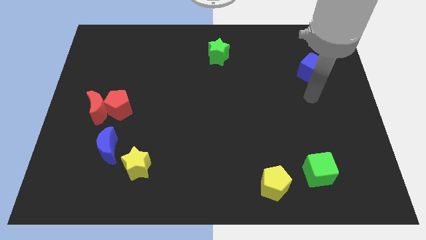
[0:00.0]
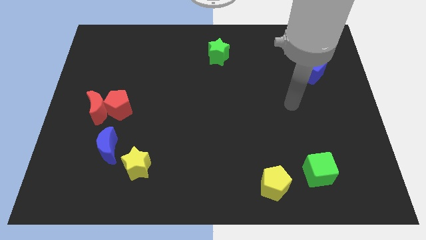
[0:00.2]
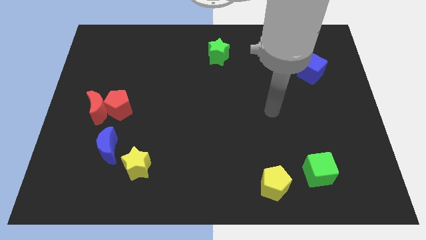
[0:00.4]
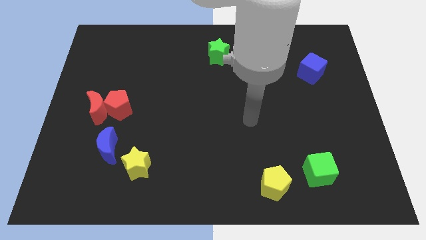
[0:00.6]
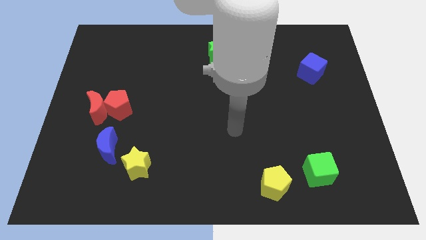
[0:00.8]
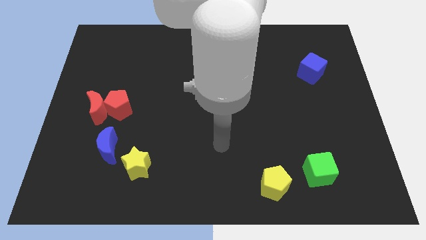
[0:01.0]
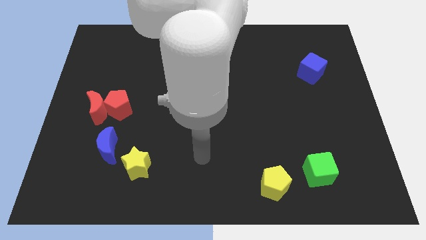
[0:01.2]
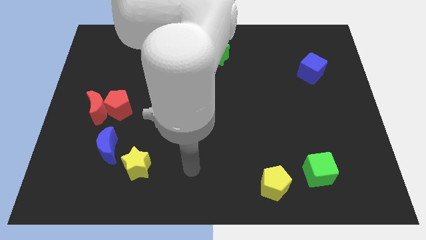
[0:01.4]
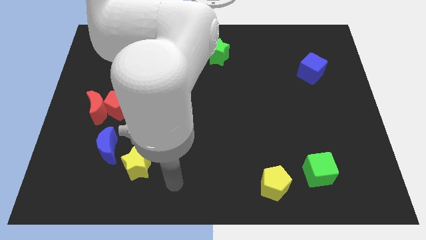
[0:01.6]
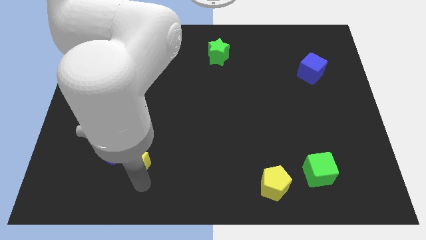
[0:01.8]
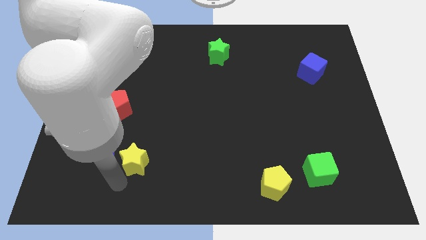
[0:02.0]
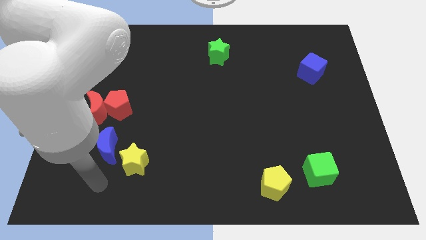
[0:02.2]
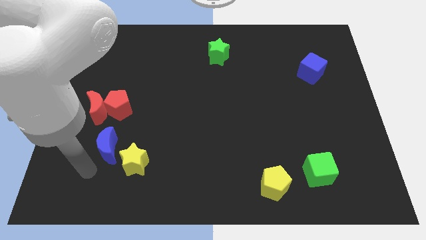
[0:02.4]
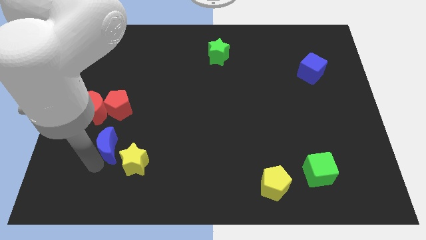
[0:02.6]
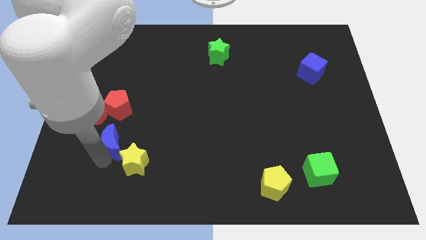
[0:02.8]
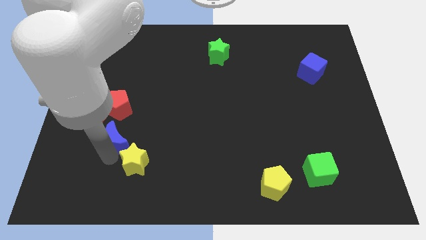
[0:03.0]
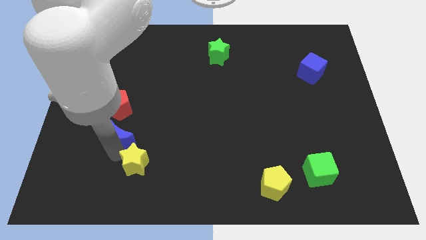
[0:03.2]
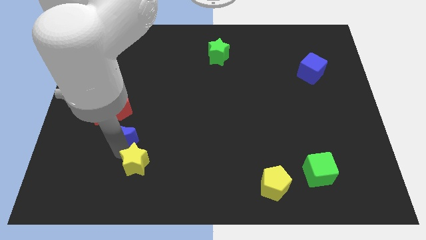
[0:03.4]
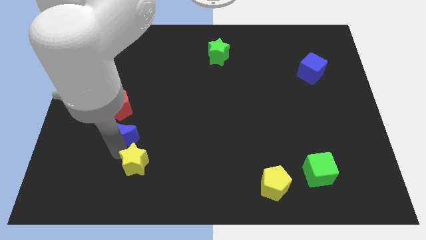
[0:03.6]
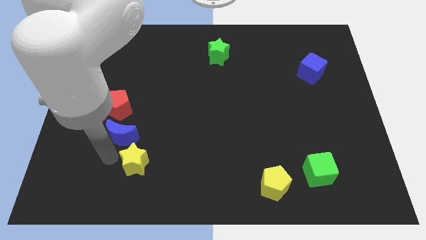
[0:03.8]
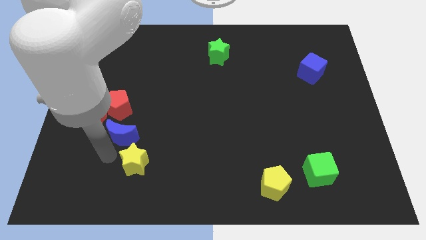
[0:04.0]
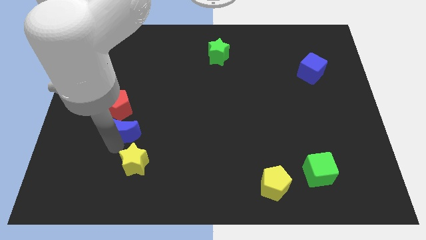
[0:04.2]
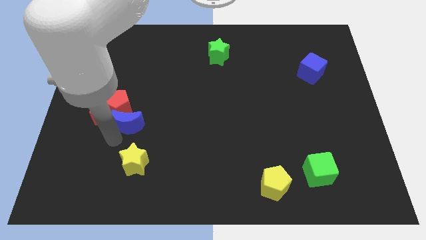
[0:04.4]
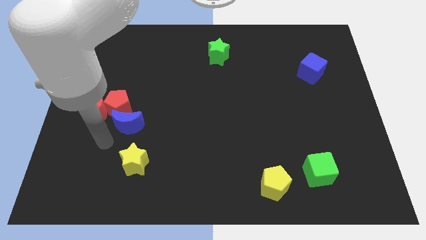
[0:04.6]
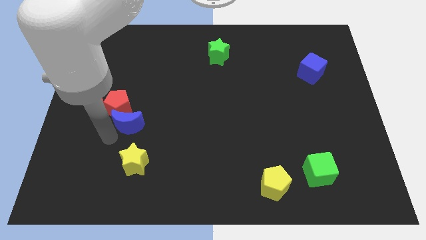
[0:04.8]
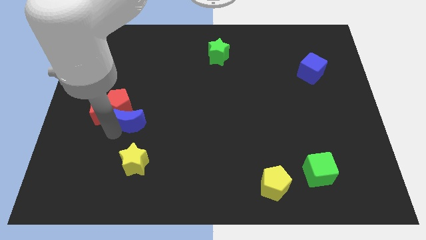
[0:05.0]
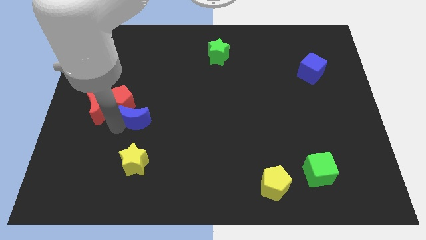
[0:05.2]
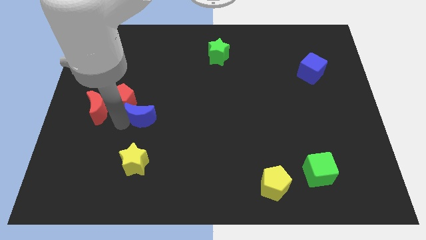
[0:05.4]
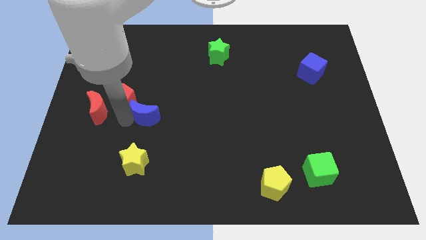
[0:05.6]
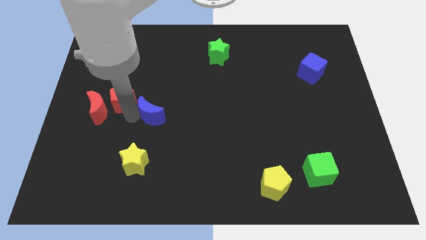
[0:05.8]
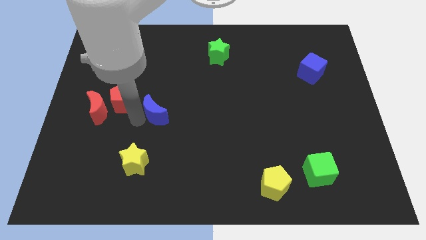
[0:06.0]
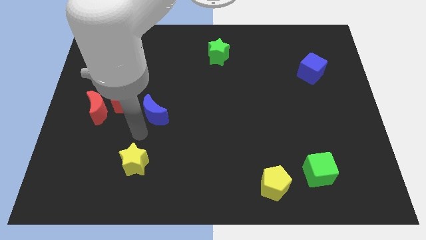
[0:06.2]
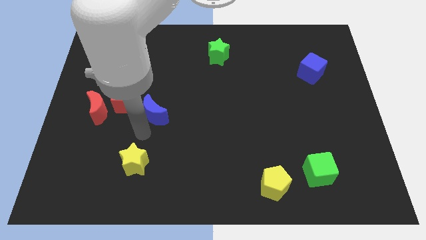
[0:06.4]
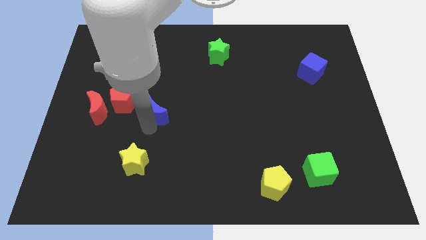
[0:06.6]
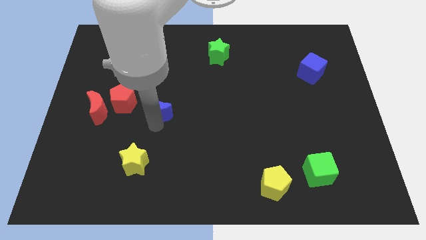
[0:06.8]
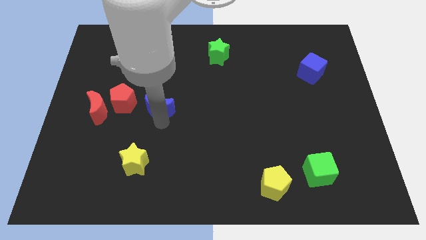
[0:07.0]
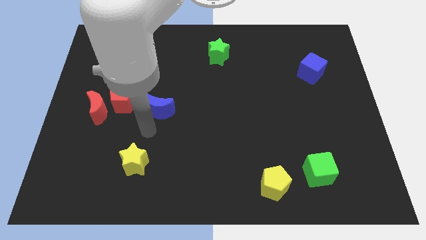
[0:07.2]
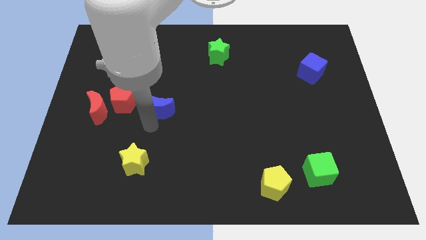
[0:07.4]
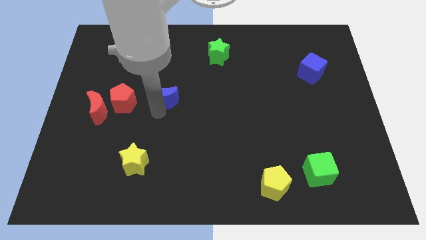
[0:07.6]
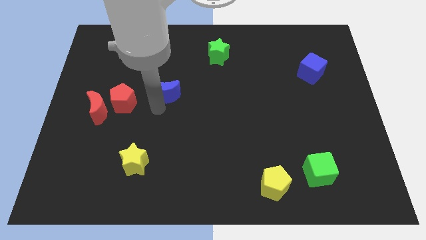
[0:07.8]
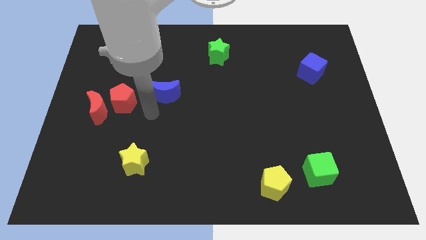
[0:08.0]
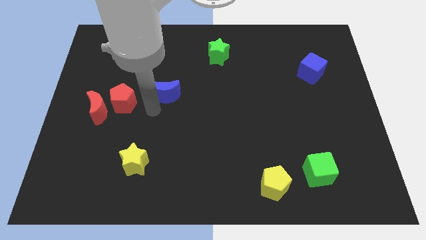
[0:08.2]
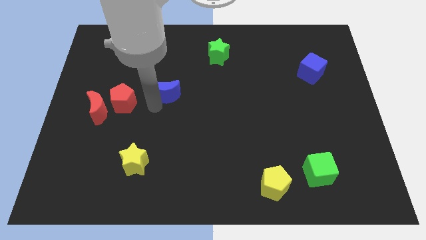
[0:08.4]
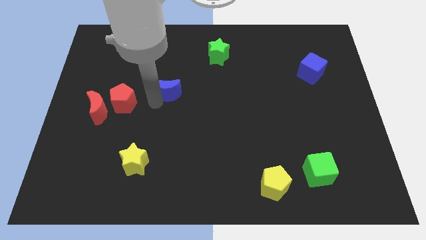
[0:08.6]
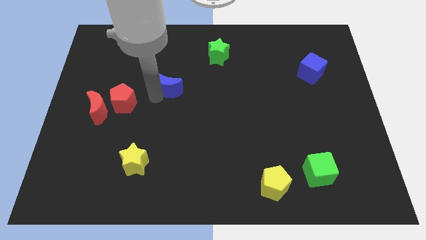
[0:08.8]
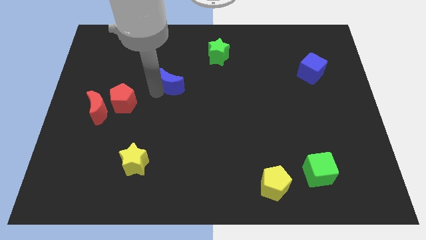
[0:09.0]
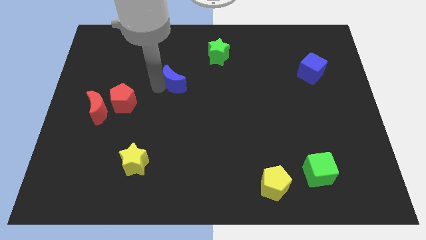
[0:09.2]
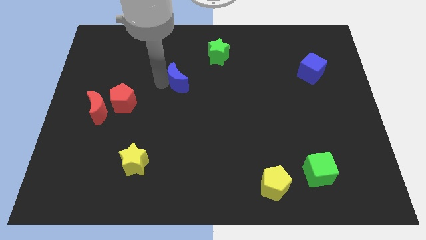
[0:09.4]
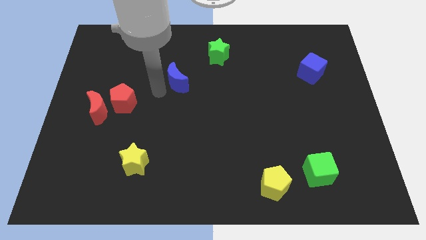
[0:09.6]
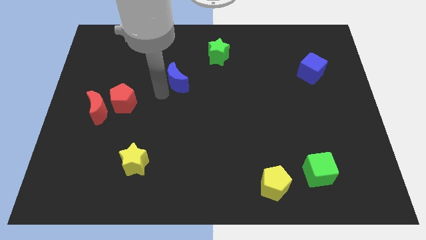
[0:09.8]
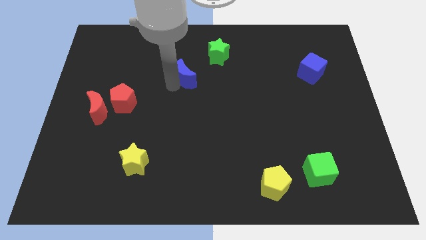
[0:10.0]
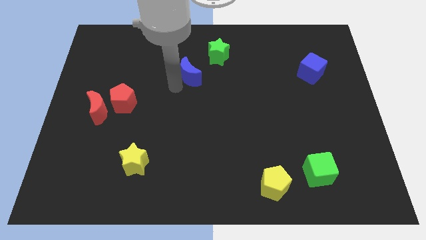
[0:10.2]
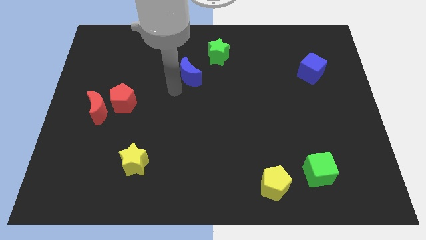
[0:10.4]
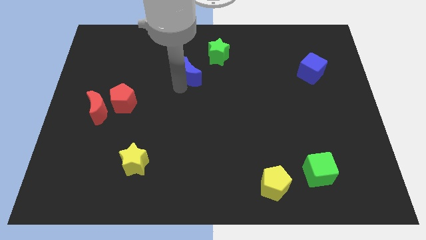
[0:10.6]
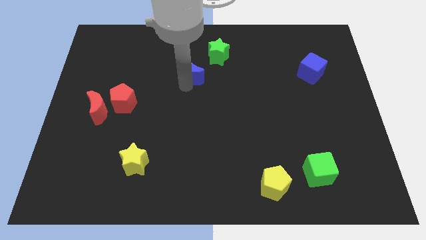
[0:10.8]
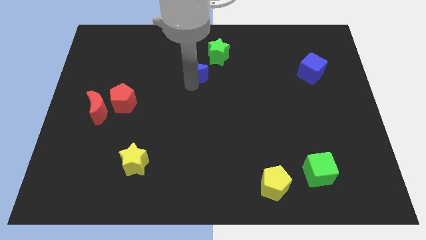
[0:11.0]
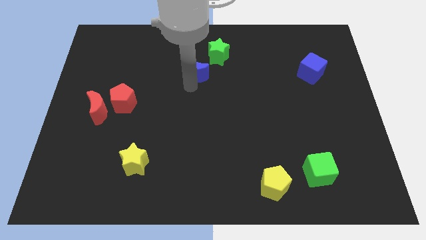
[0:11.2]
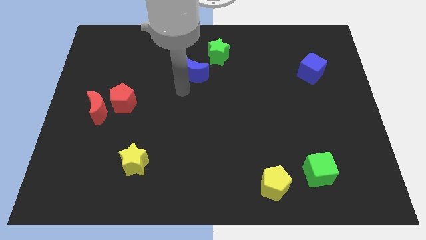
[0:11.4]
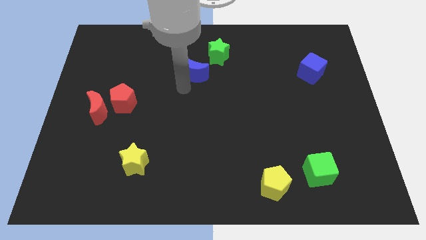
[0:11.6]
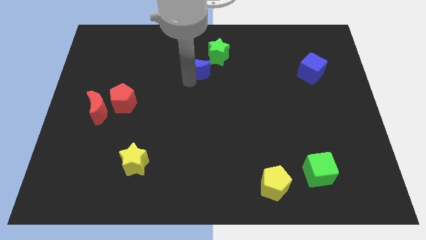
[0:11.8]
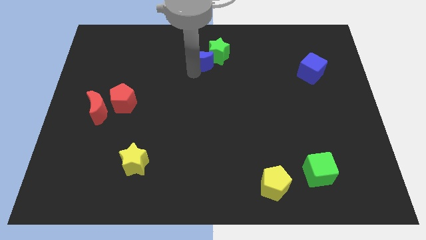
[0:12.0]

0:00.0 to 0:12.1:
put the blue moon next to the green star
